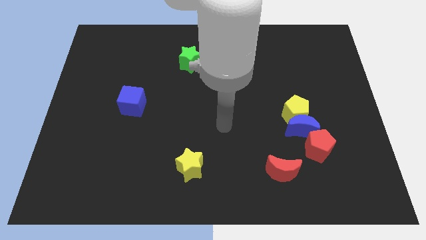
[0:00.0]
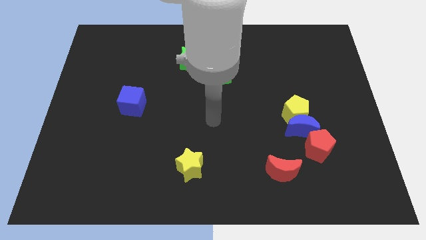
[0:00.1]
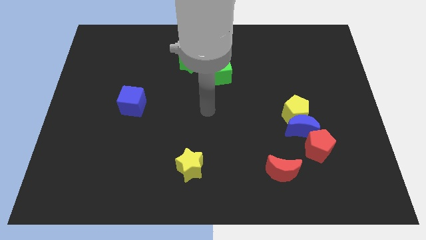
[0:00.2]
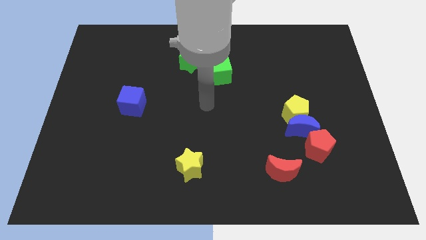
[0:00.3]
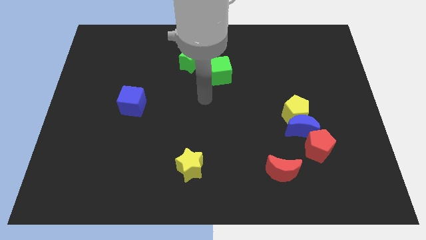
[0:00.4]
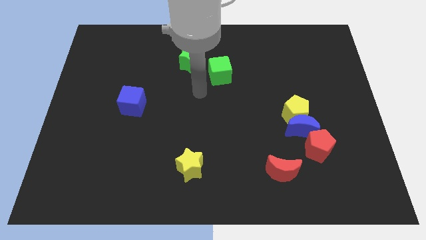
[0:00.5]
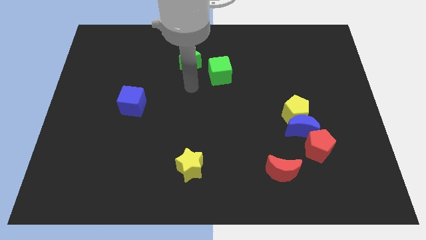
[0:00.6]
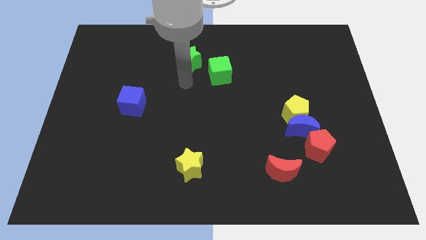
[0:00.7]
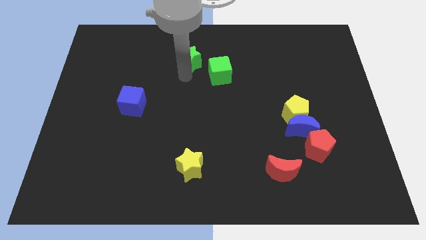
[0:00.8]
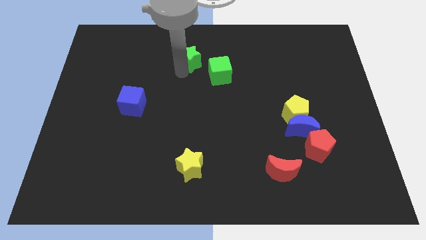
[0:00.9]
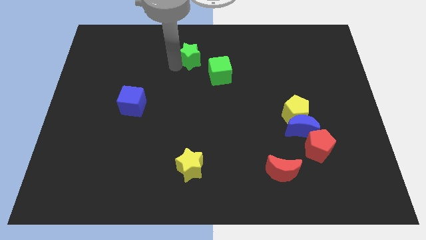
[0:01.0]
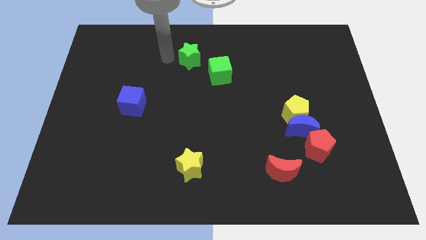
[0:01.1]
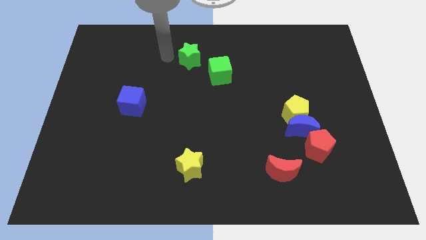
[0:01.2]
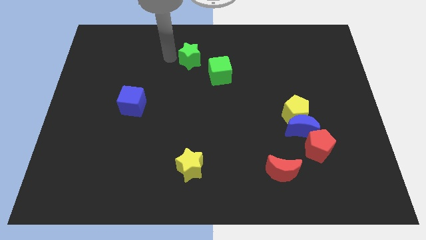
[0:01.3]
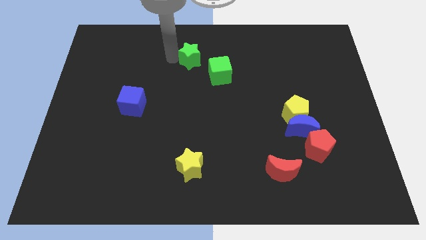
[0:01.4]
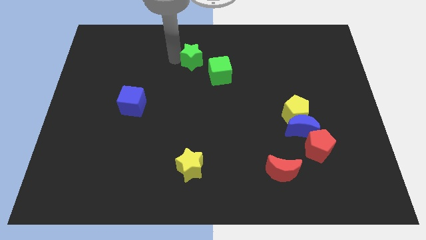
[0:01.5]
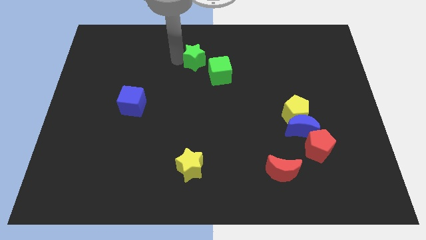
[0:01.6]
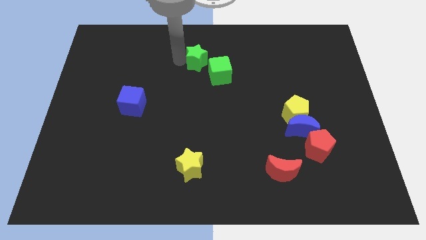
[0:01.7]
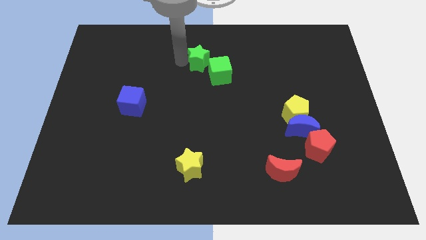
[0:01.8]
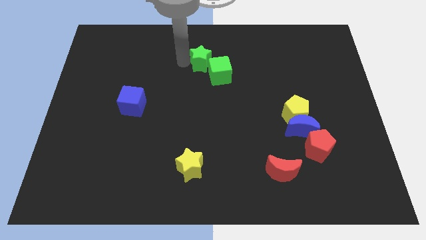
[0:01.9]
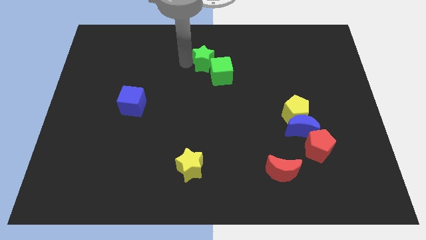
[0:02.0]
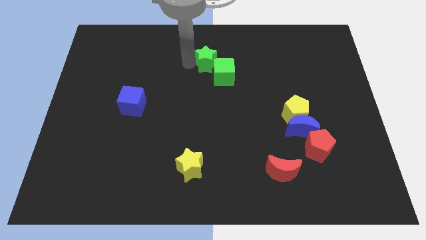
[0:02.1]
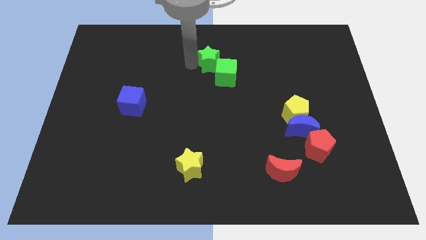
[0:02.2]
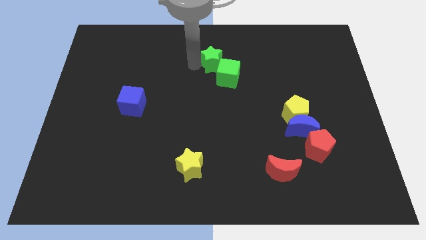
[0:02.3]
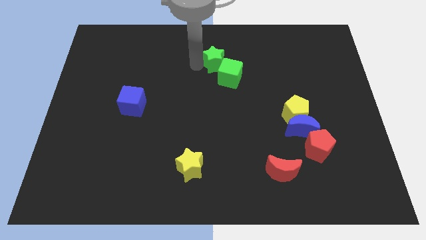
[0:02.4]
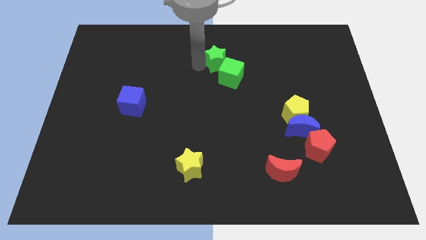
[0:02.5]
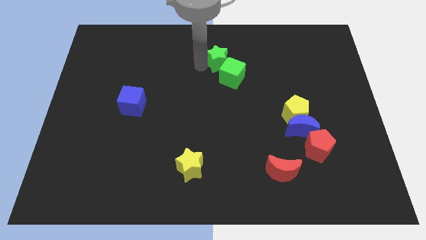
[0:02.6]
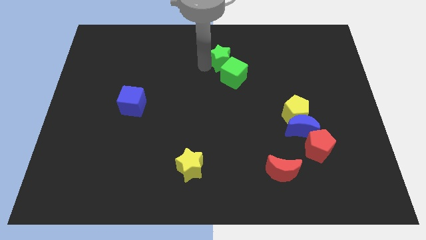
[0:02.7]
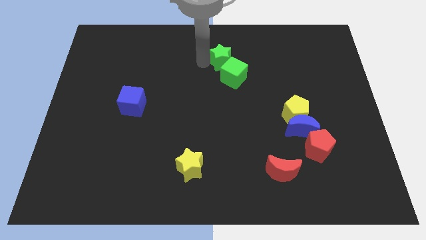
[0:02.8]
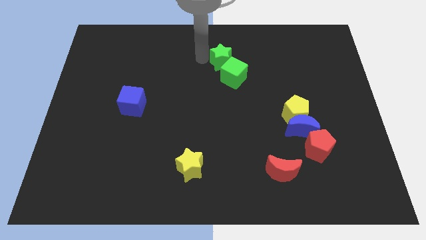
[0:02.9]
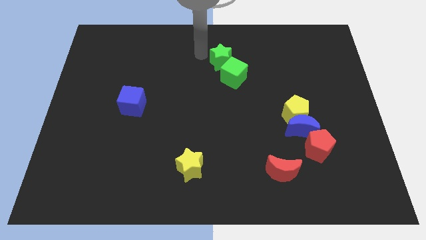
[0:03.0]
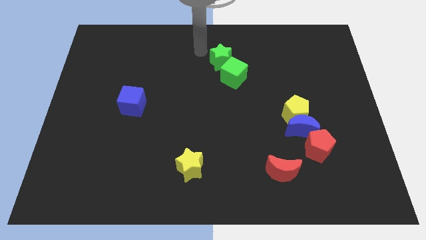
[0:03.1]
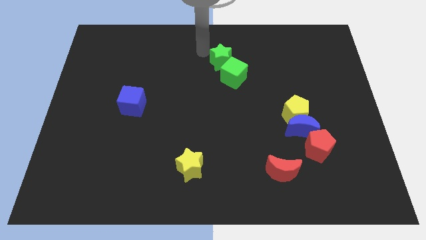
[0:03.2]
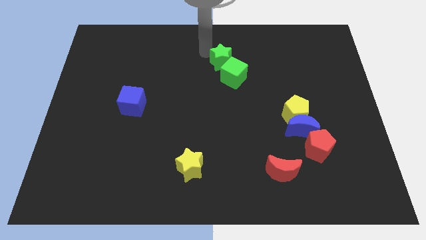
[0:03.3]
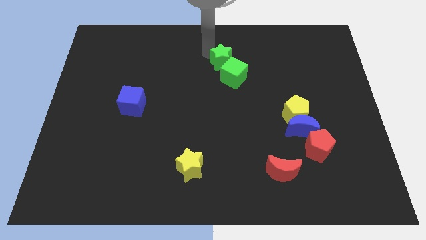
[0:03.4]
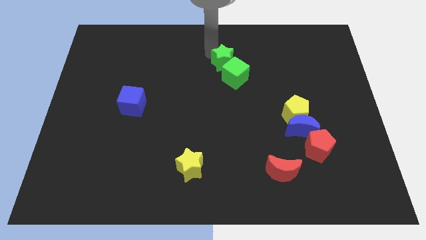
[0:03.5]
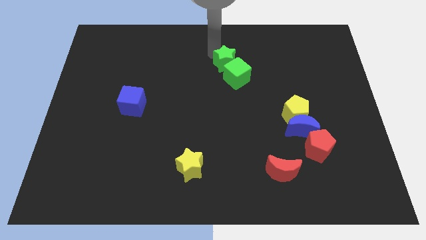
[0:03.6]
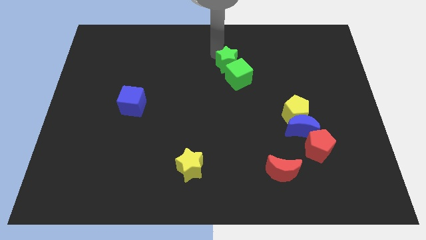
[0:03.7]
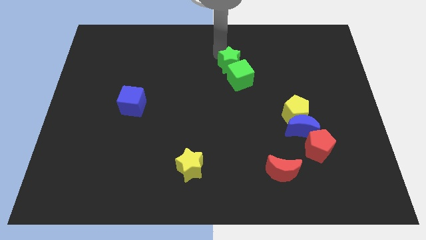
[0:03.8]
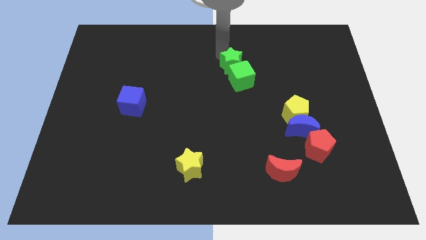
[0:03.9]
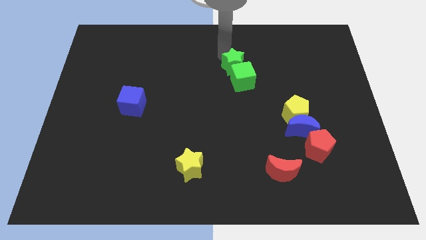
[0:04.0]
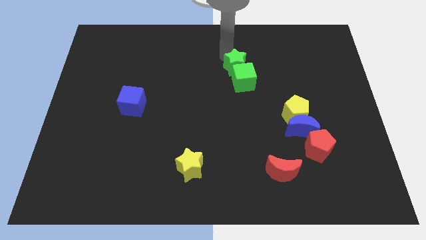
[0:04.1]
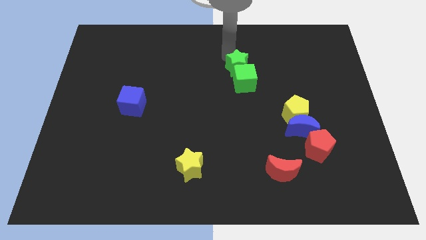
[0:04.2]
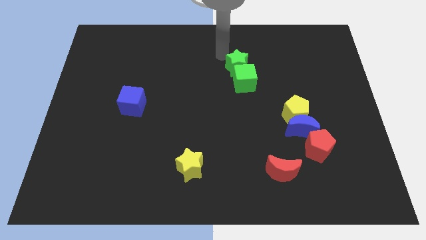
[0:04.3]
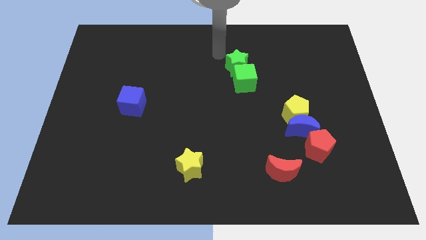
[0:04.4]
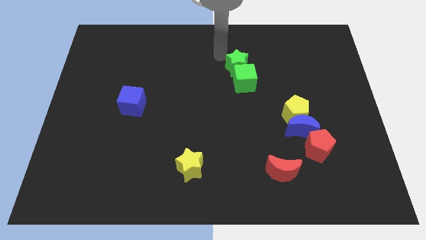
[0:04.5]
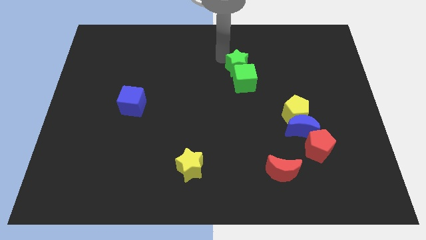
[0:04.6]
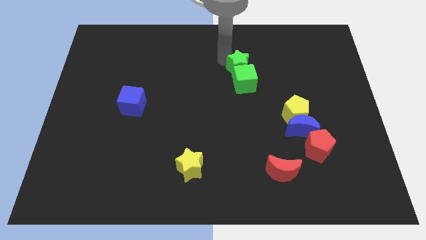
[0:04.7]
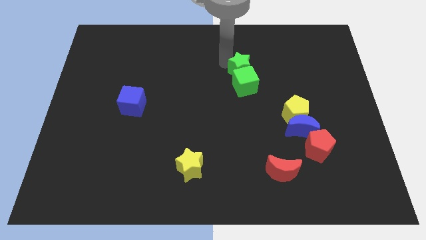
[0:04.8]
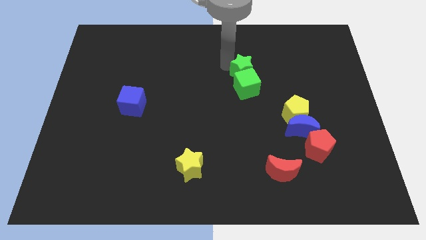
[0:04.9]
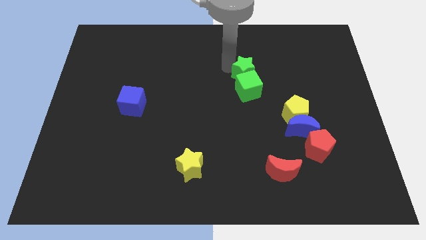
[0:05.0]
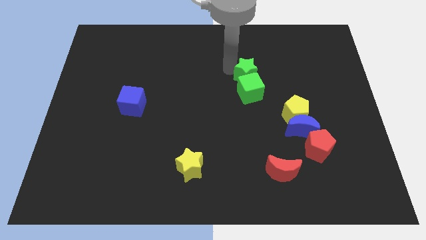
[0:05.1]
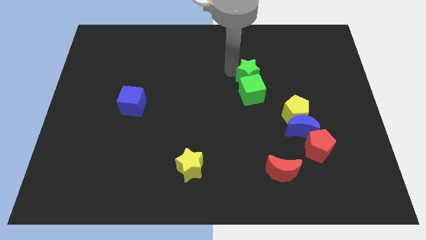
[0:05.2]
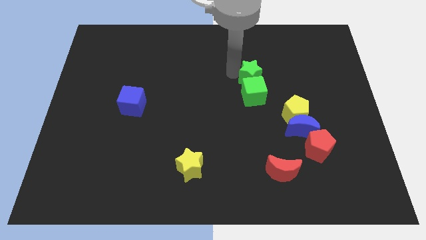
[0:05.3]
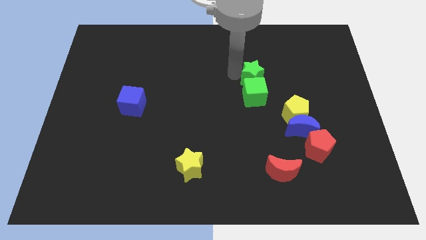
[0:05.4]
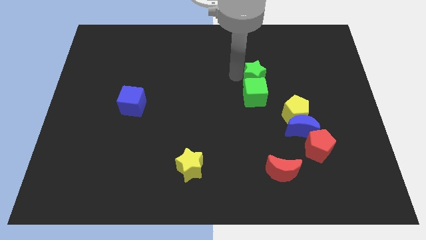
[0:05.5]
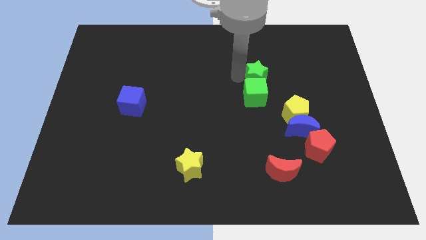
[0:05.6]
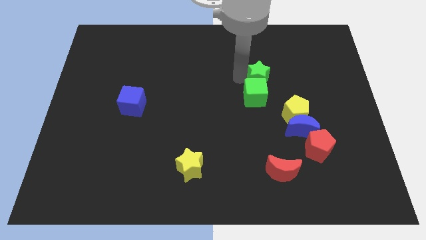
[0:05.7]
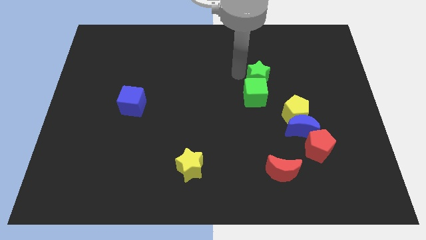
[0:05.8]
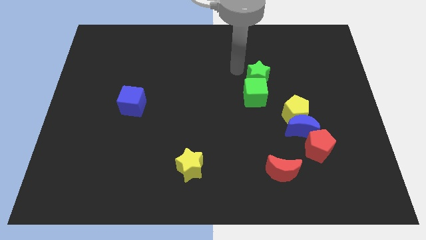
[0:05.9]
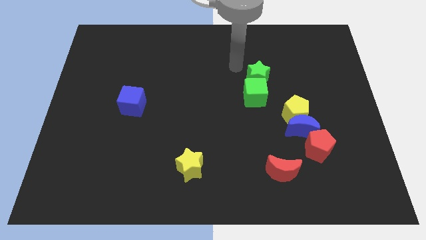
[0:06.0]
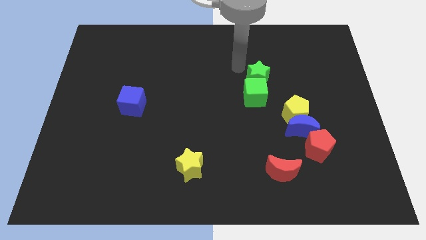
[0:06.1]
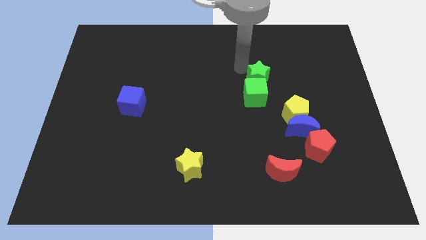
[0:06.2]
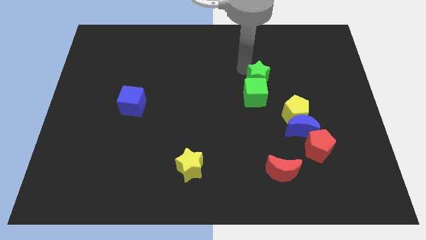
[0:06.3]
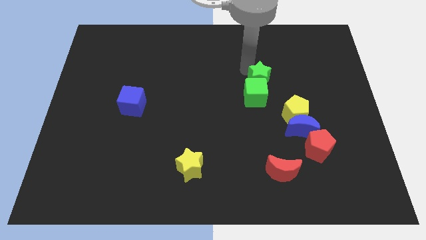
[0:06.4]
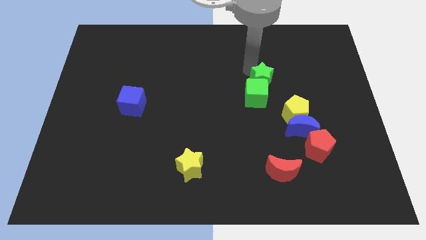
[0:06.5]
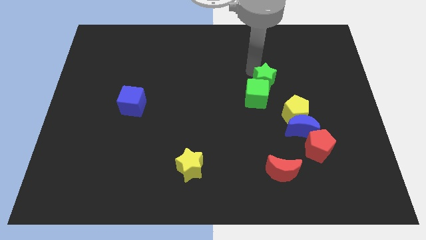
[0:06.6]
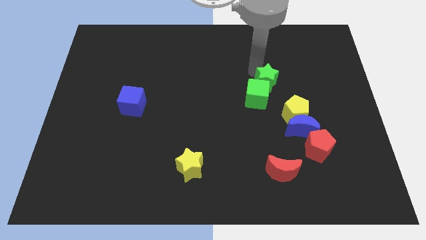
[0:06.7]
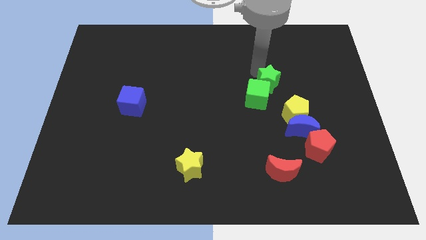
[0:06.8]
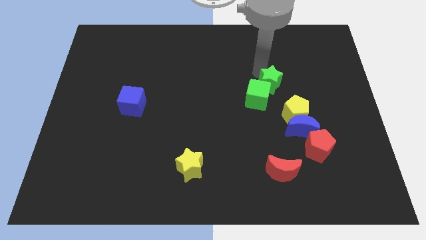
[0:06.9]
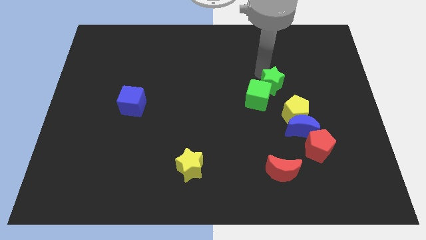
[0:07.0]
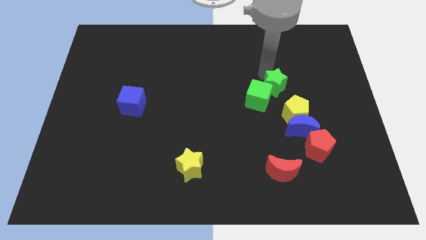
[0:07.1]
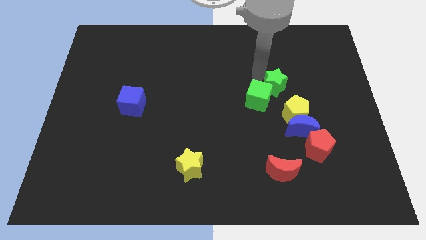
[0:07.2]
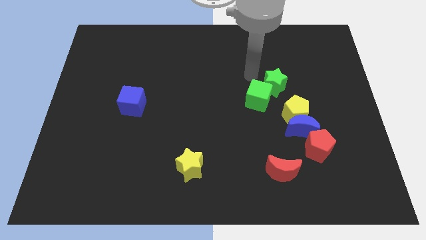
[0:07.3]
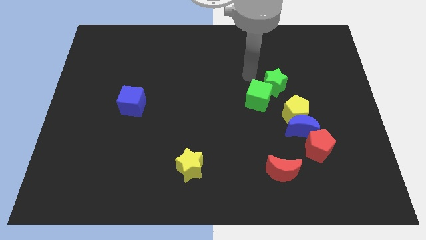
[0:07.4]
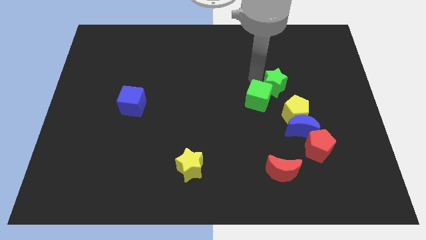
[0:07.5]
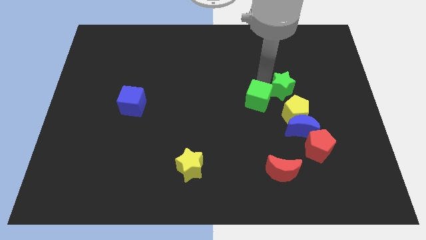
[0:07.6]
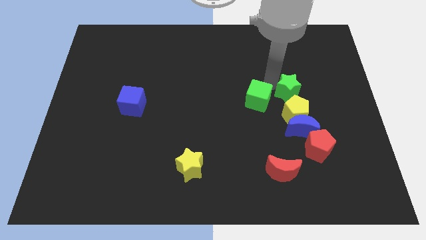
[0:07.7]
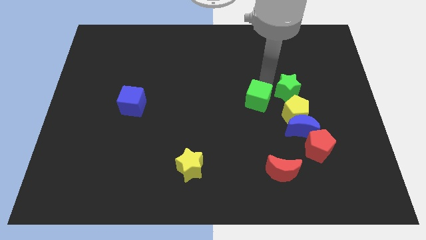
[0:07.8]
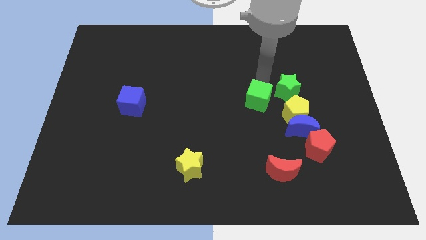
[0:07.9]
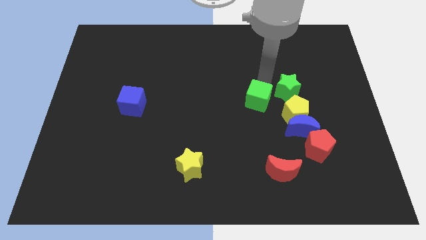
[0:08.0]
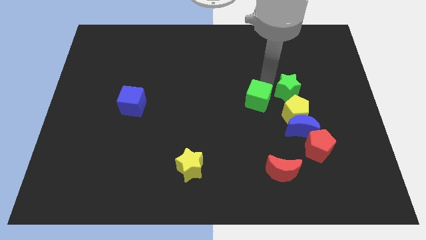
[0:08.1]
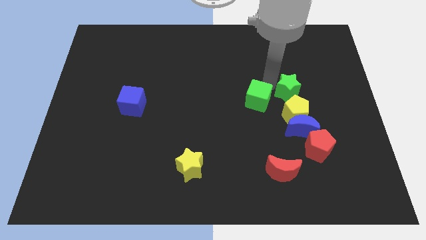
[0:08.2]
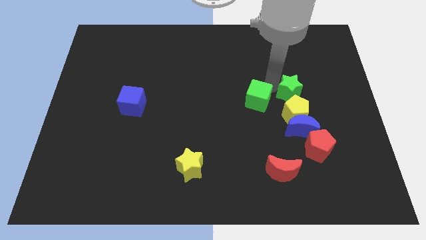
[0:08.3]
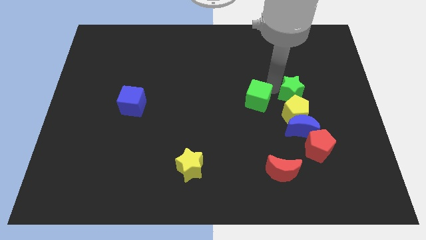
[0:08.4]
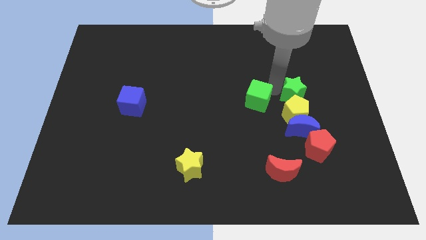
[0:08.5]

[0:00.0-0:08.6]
push the green star next to the yellow pentagon
